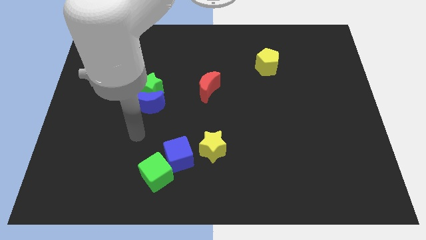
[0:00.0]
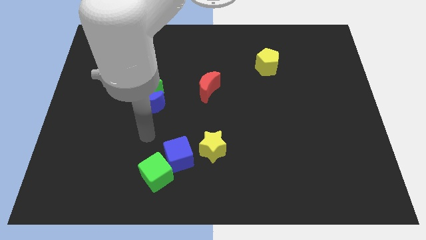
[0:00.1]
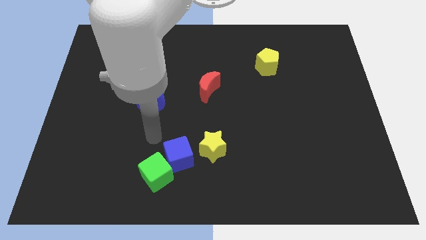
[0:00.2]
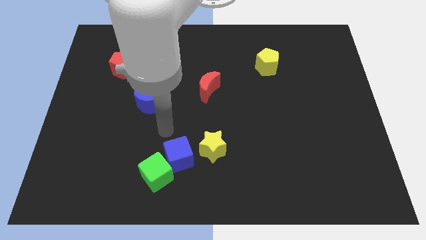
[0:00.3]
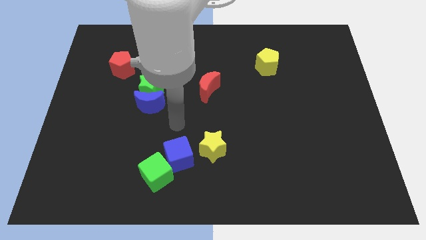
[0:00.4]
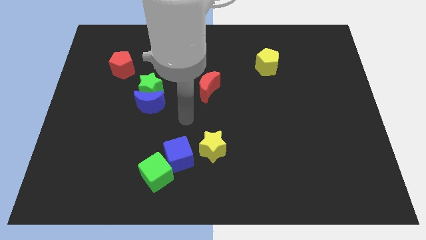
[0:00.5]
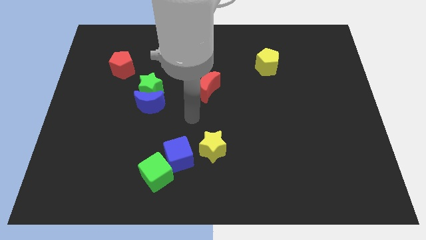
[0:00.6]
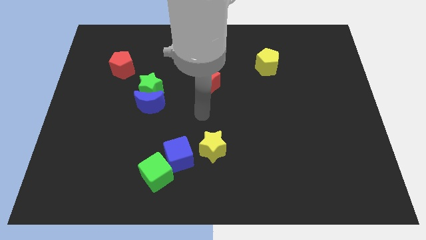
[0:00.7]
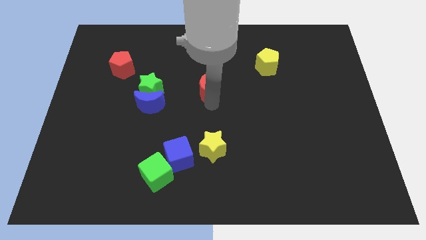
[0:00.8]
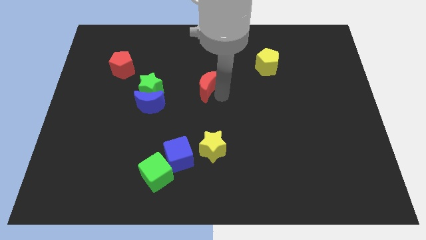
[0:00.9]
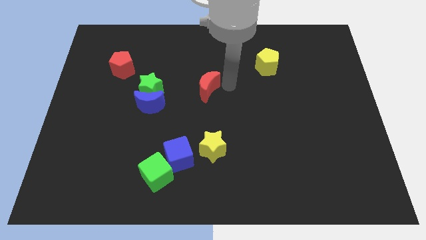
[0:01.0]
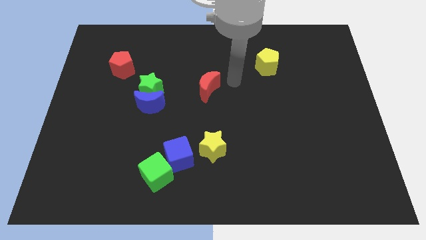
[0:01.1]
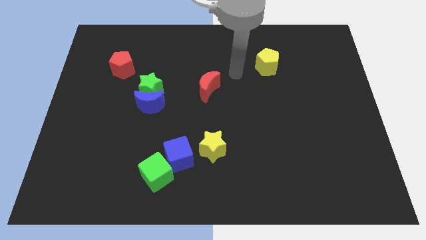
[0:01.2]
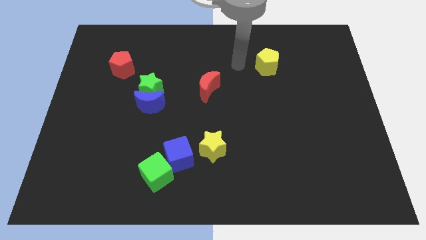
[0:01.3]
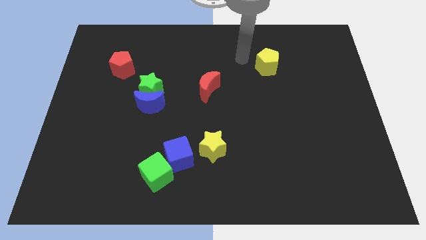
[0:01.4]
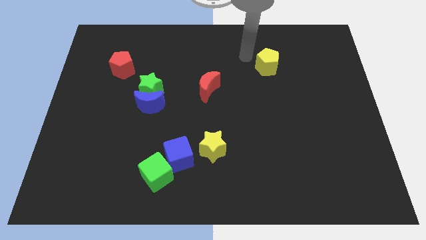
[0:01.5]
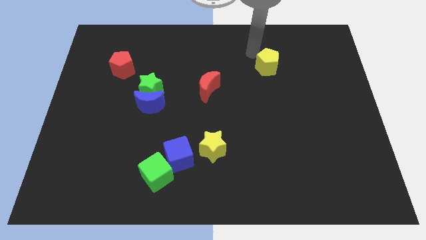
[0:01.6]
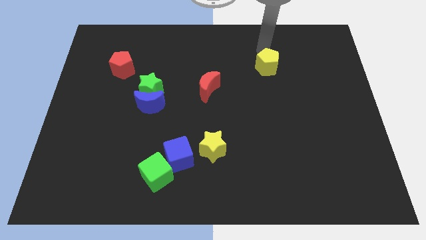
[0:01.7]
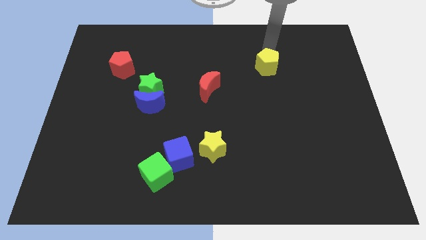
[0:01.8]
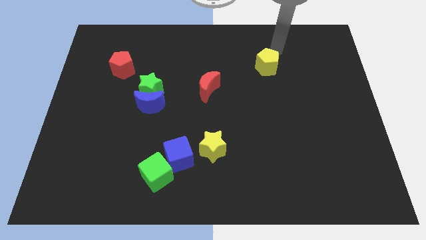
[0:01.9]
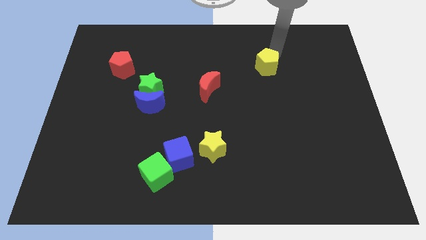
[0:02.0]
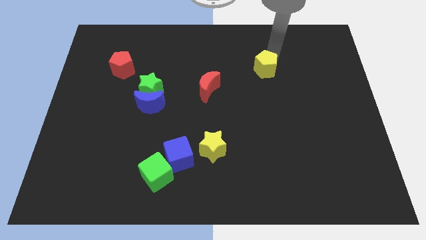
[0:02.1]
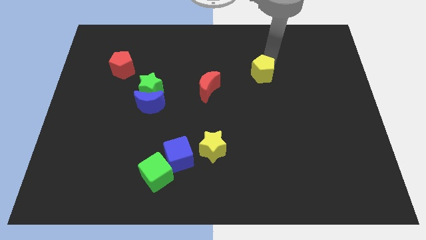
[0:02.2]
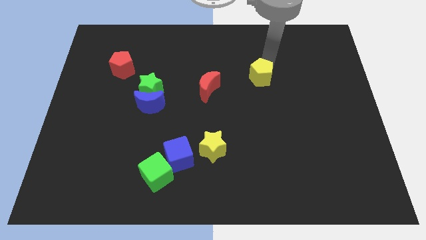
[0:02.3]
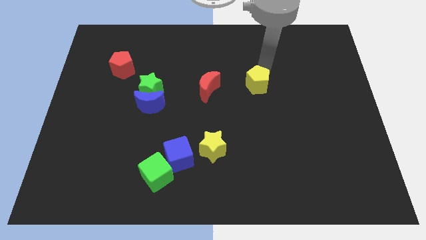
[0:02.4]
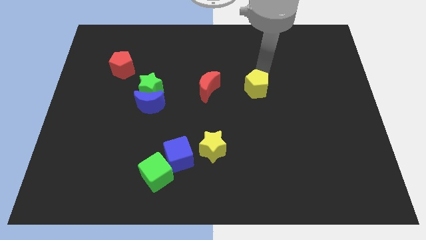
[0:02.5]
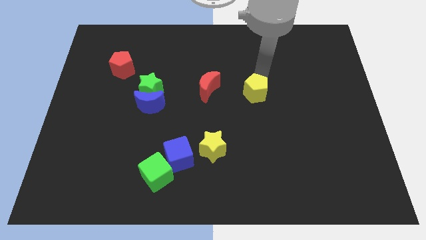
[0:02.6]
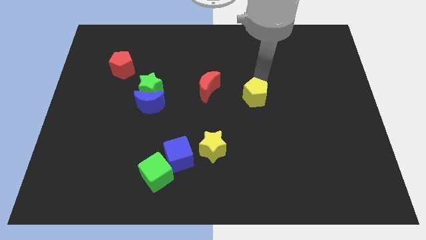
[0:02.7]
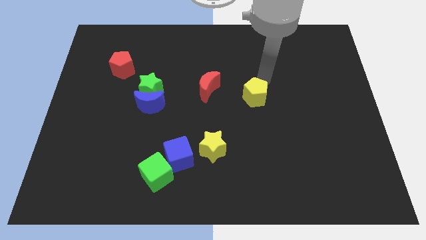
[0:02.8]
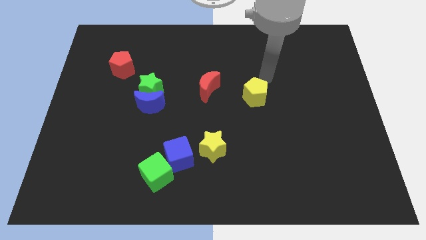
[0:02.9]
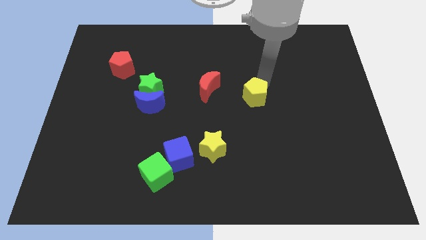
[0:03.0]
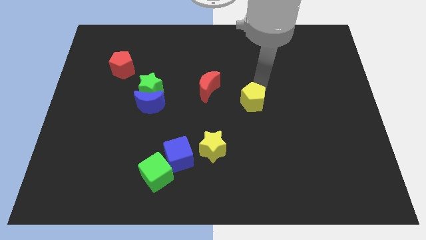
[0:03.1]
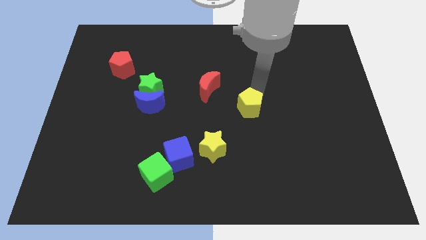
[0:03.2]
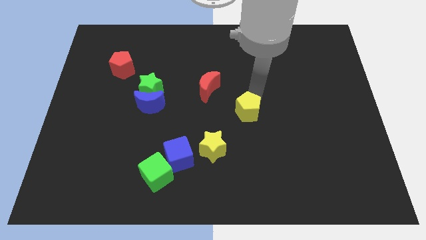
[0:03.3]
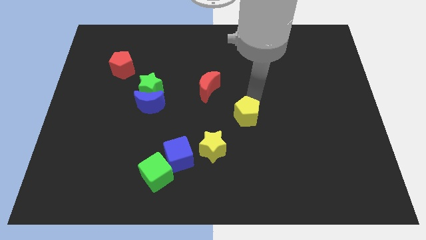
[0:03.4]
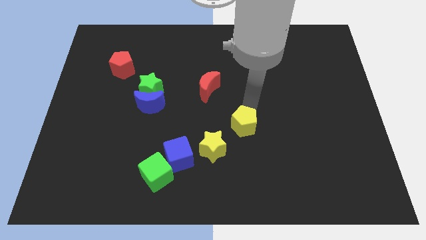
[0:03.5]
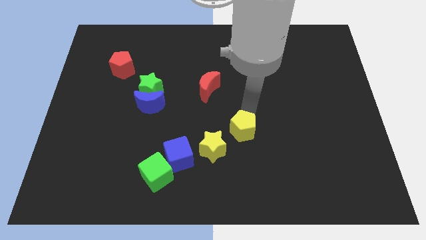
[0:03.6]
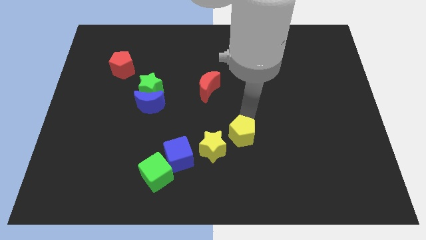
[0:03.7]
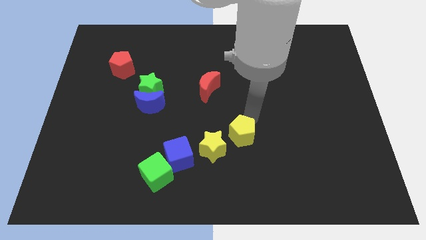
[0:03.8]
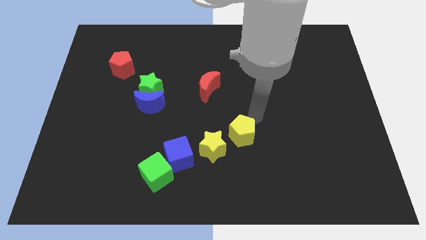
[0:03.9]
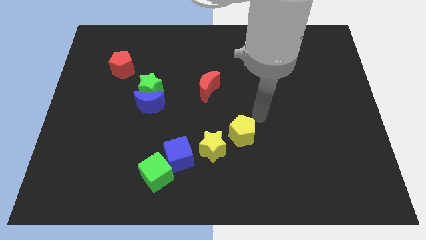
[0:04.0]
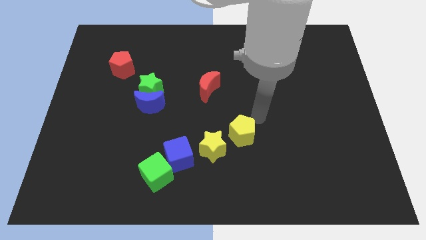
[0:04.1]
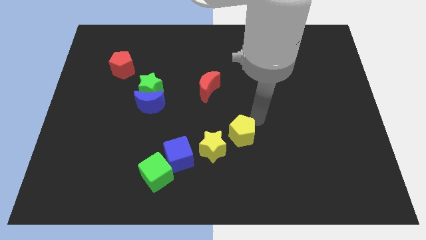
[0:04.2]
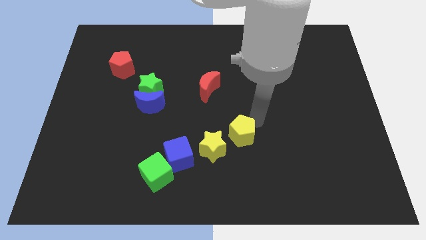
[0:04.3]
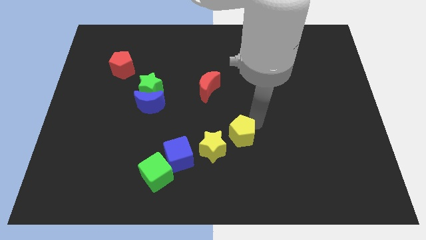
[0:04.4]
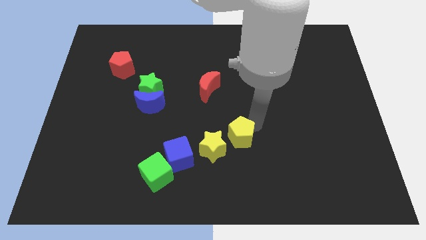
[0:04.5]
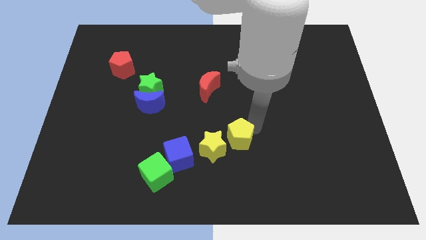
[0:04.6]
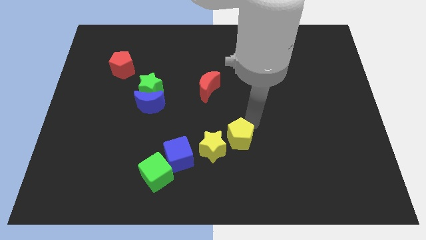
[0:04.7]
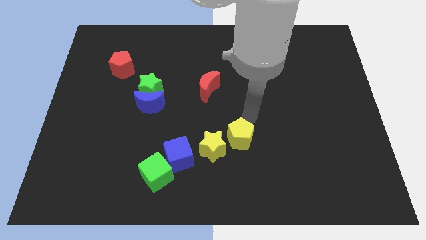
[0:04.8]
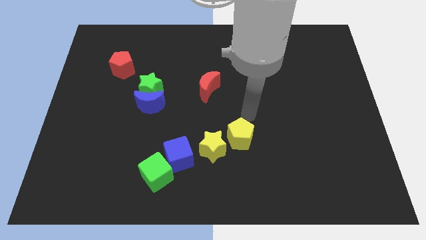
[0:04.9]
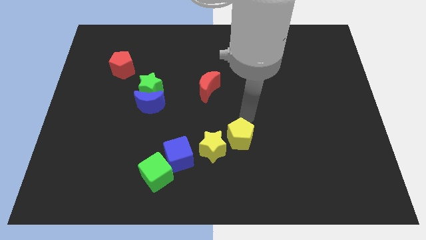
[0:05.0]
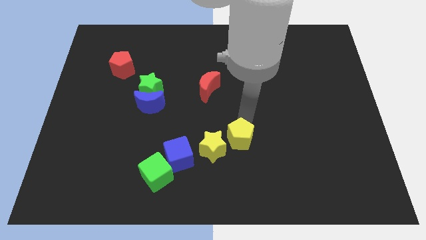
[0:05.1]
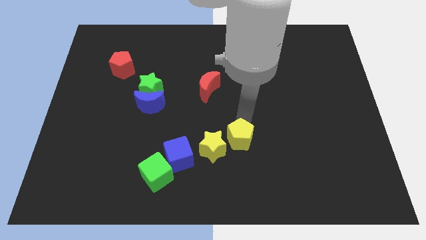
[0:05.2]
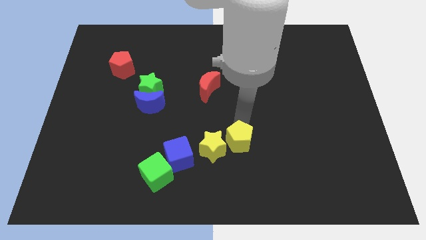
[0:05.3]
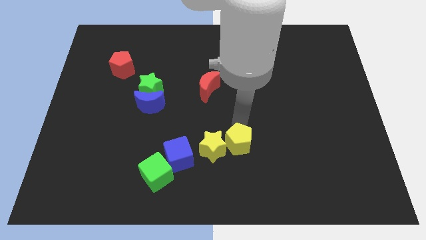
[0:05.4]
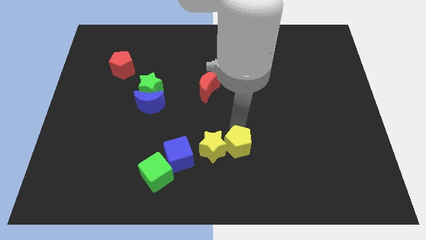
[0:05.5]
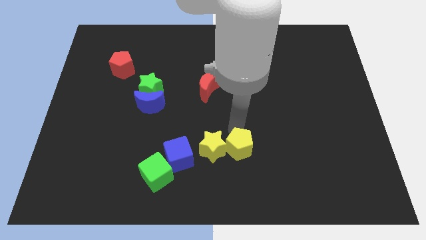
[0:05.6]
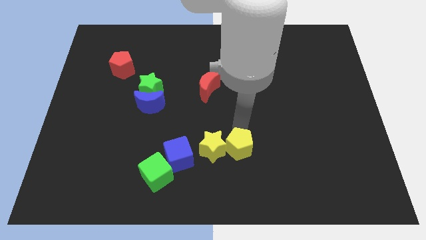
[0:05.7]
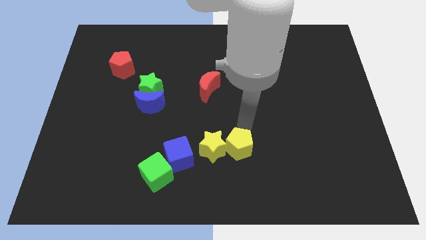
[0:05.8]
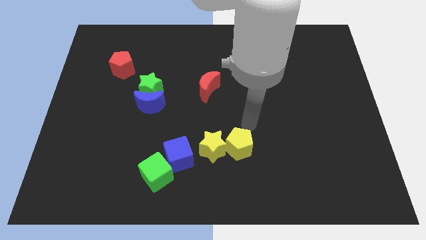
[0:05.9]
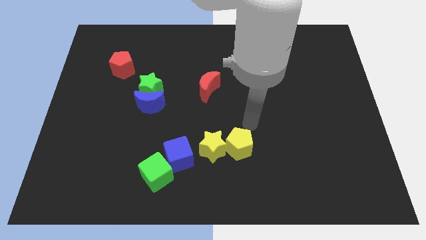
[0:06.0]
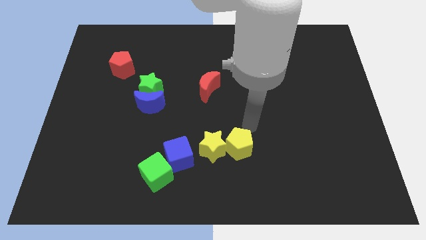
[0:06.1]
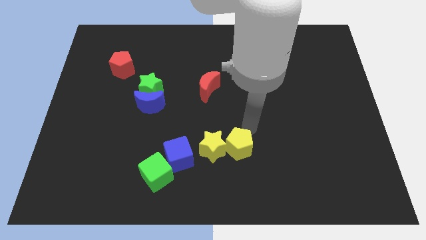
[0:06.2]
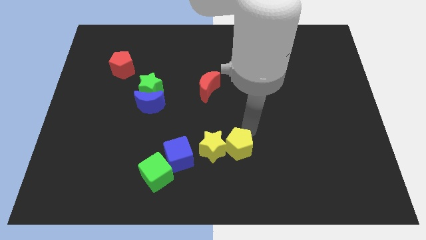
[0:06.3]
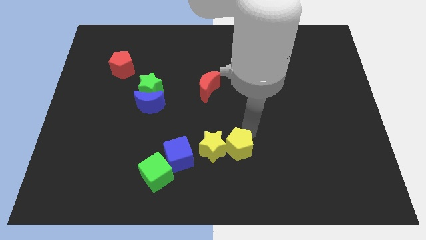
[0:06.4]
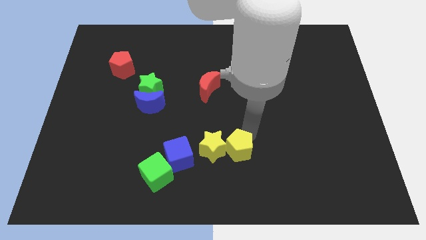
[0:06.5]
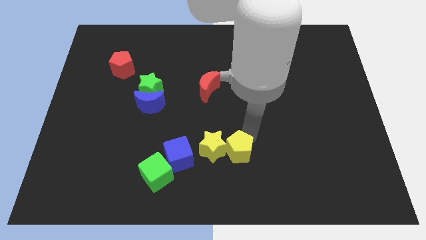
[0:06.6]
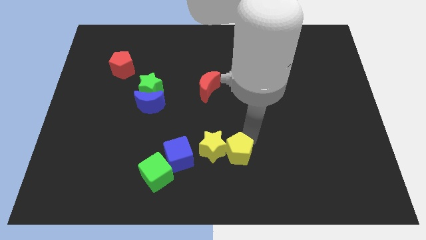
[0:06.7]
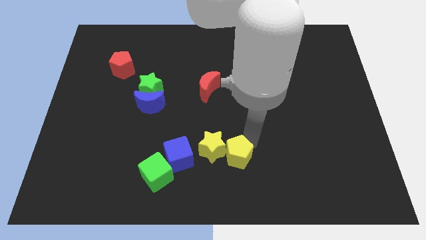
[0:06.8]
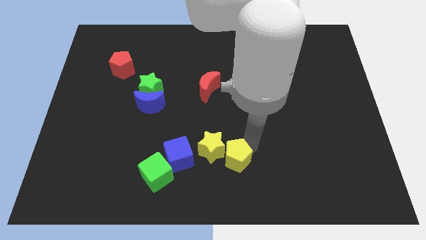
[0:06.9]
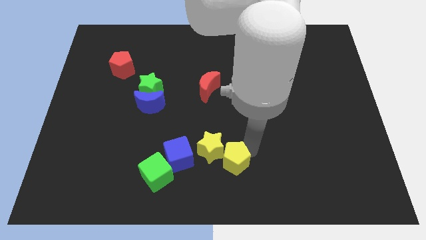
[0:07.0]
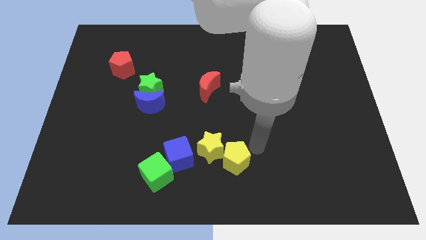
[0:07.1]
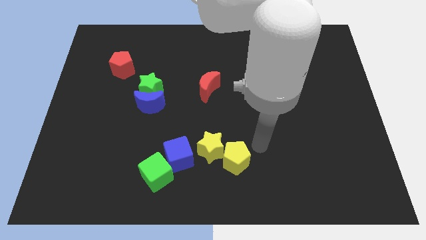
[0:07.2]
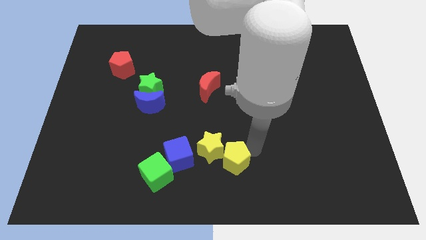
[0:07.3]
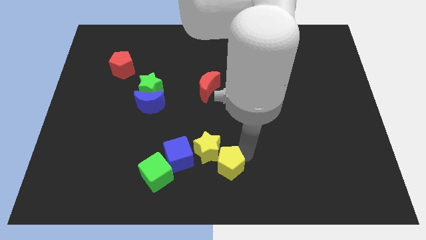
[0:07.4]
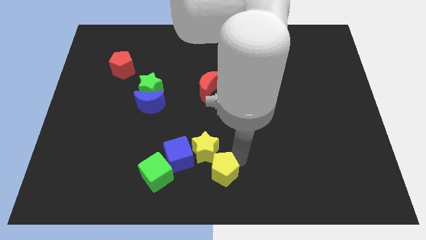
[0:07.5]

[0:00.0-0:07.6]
move the yellow pentagon diagonally down and to the right of the blue cube

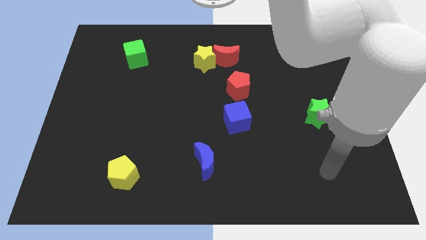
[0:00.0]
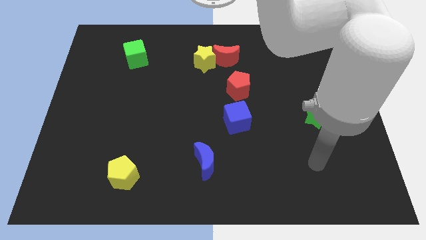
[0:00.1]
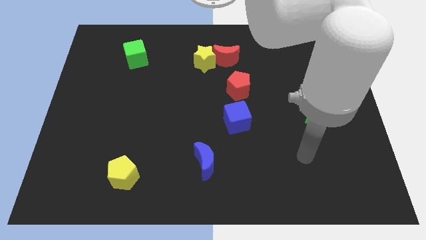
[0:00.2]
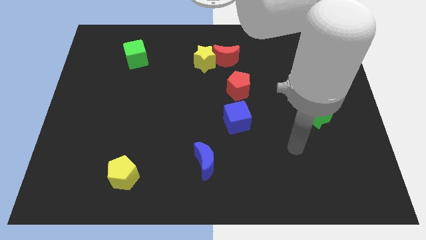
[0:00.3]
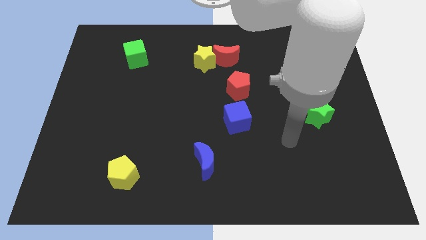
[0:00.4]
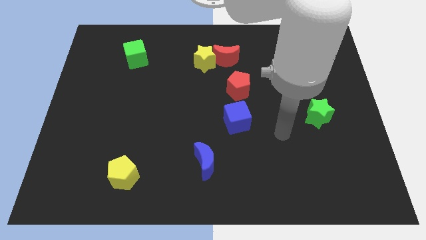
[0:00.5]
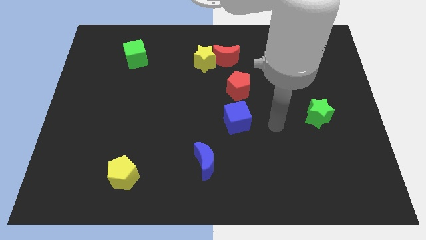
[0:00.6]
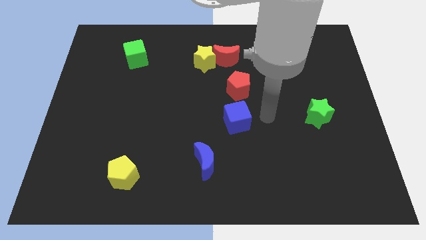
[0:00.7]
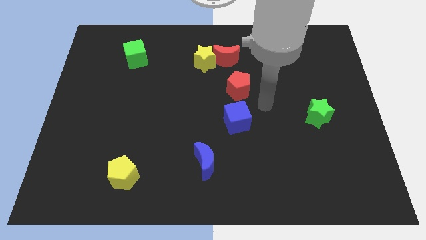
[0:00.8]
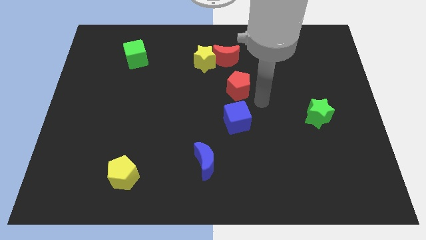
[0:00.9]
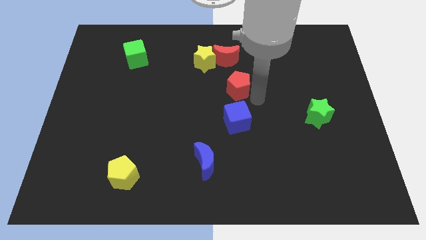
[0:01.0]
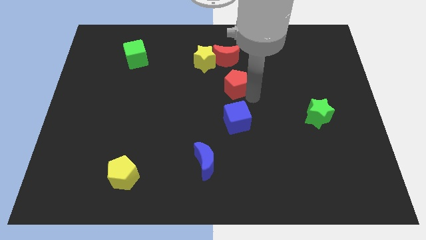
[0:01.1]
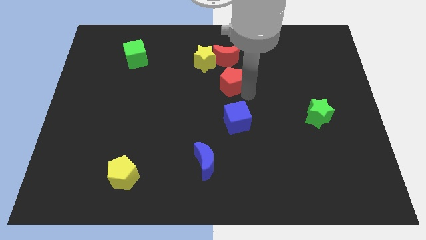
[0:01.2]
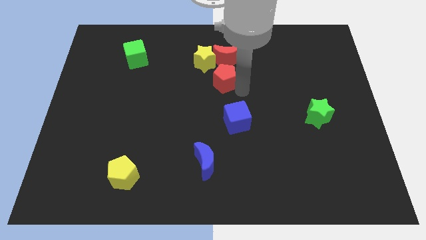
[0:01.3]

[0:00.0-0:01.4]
move the red pentagon diagonally down and to the left of the red moon
